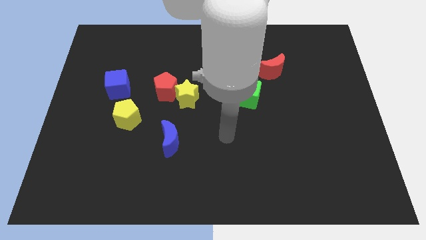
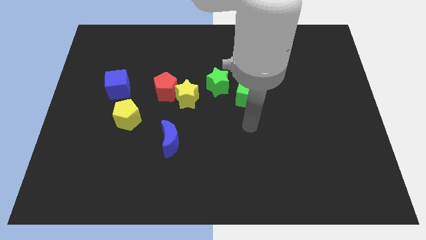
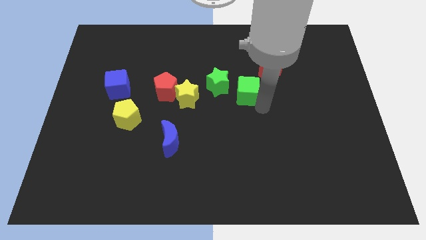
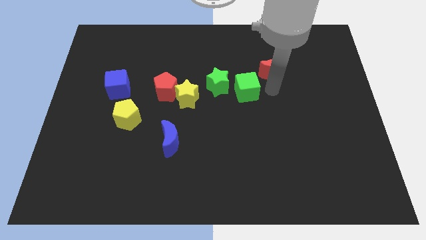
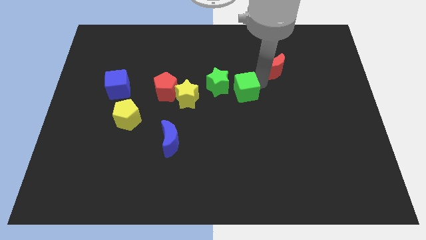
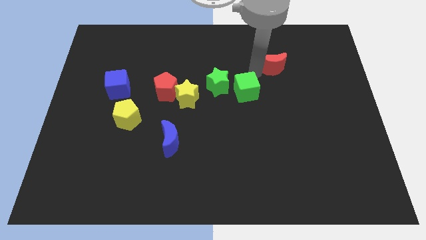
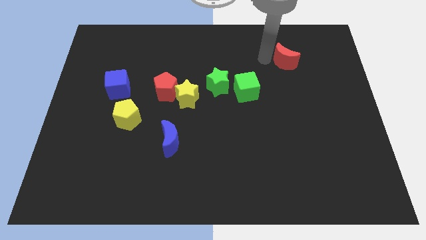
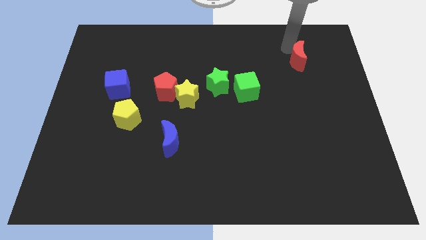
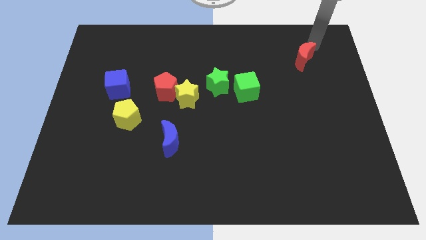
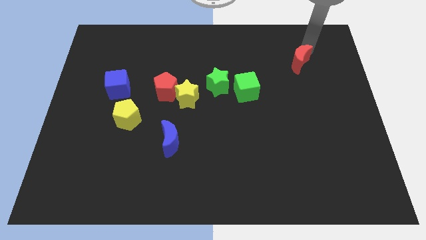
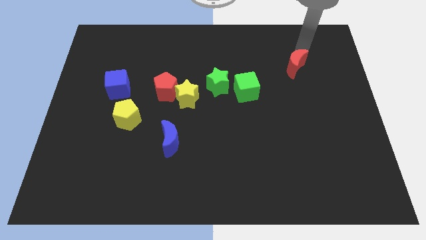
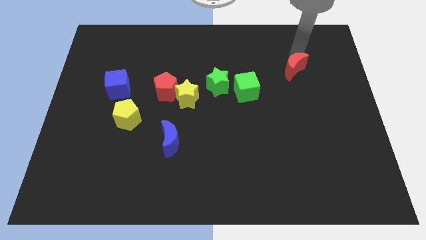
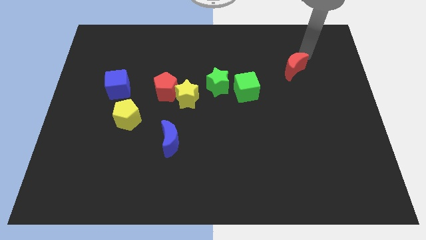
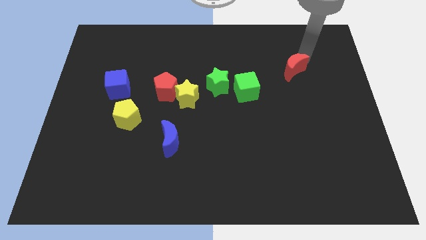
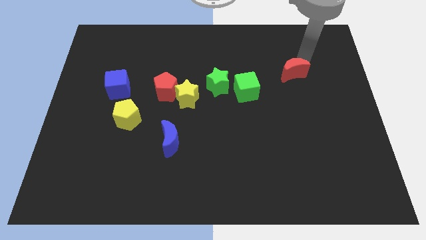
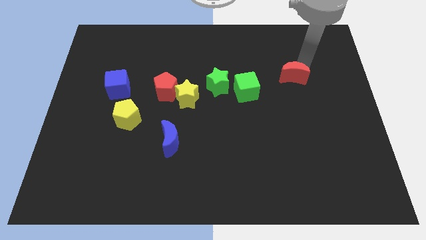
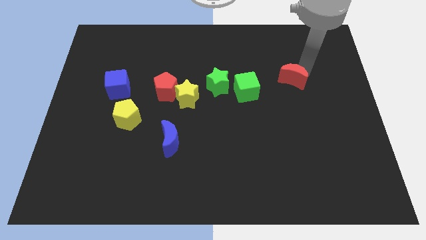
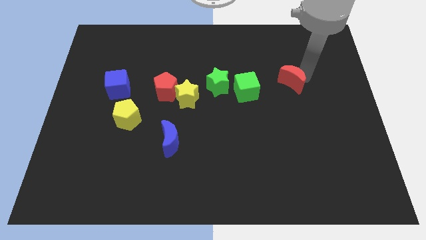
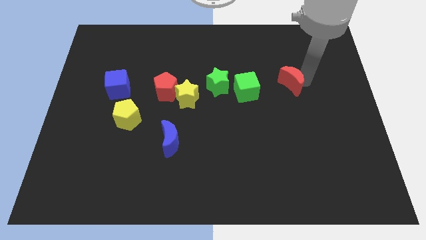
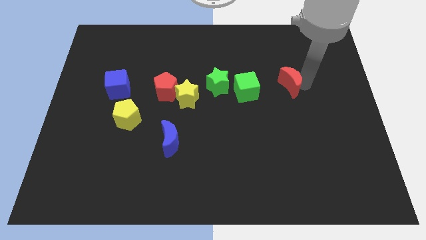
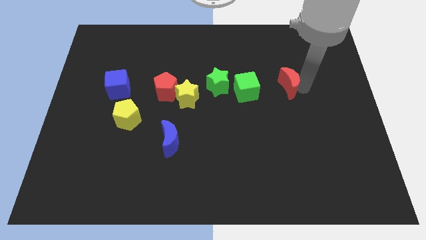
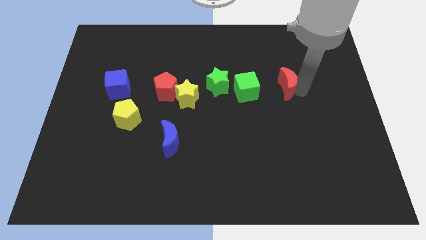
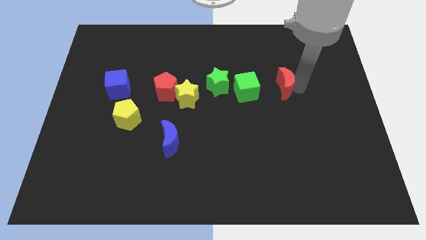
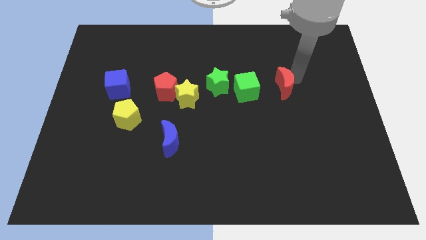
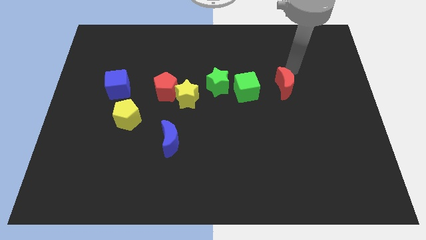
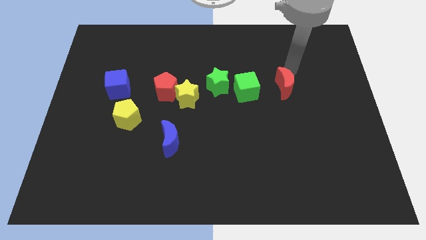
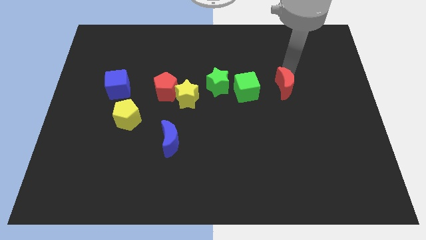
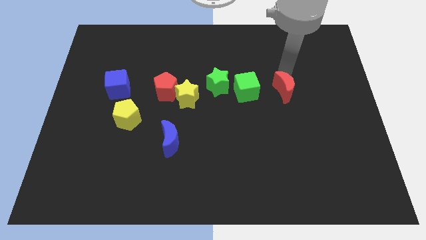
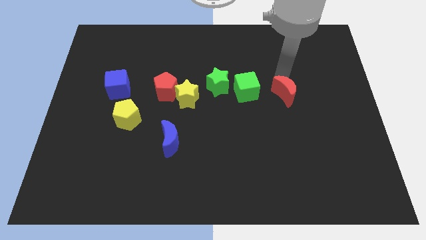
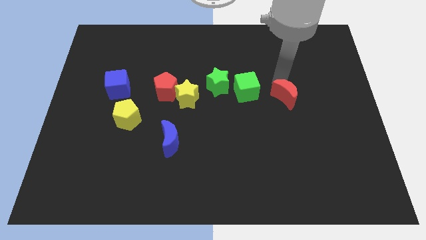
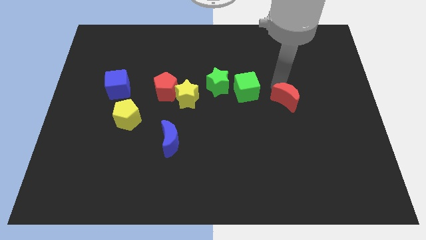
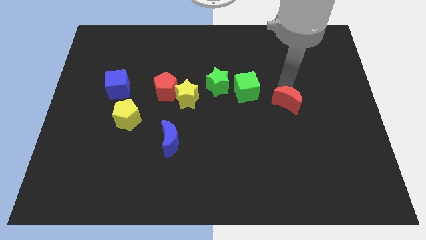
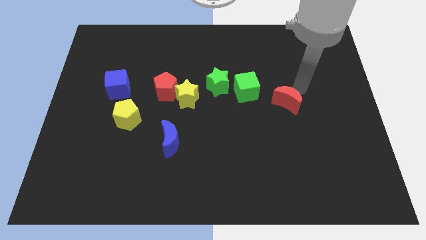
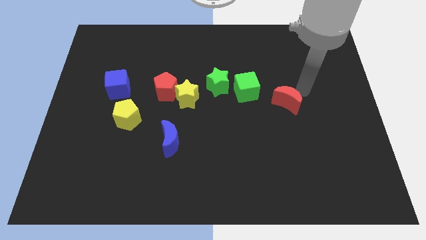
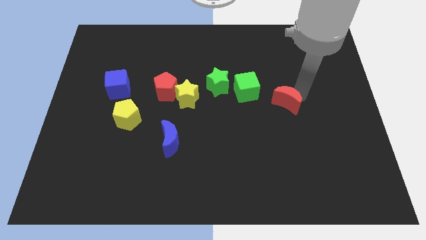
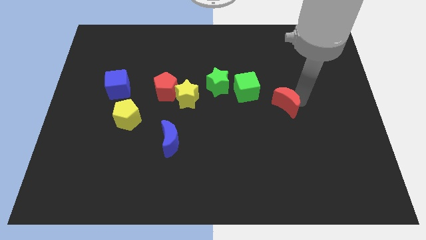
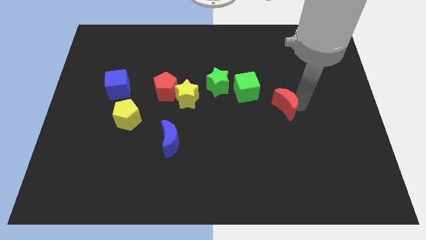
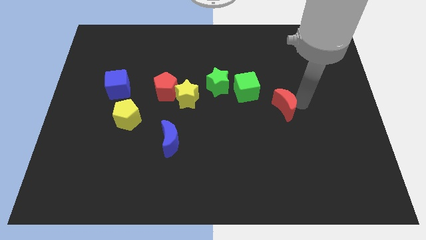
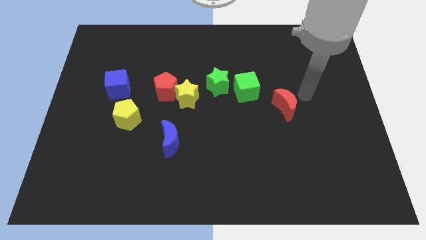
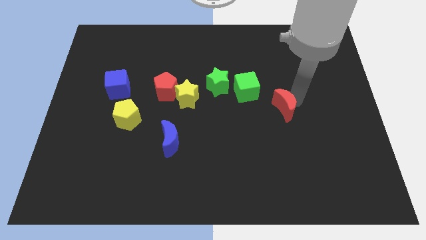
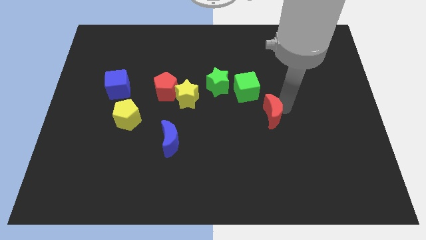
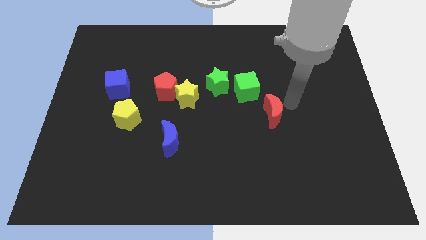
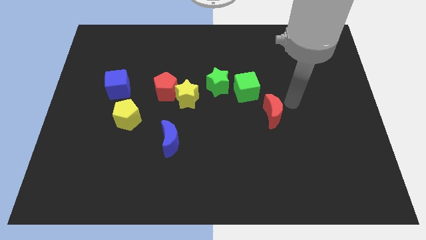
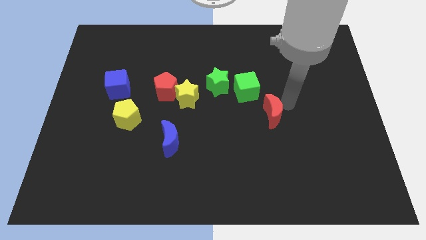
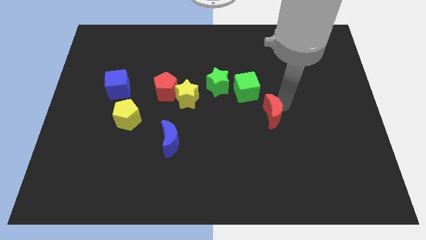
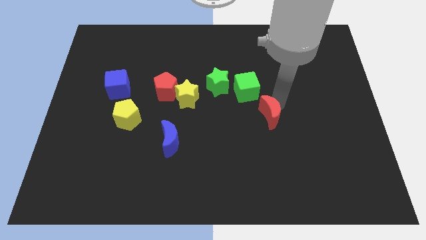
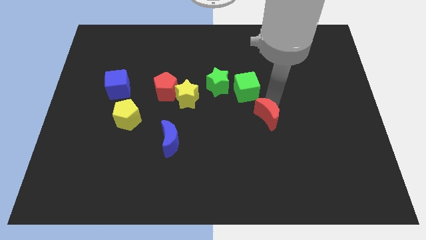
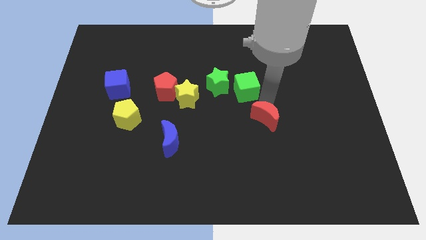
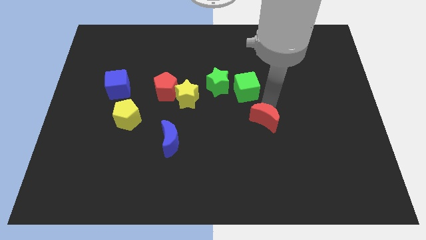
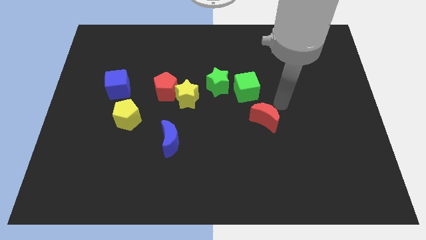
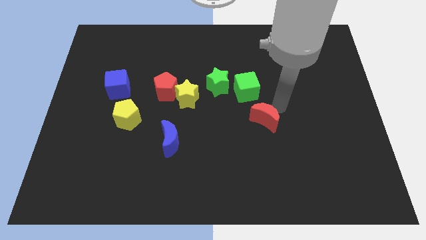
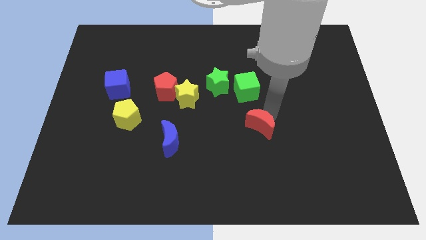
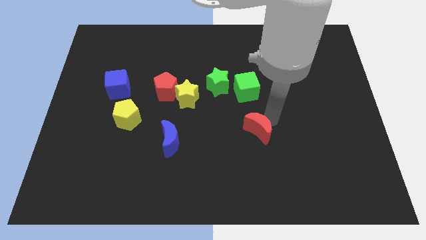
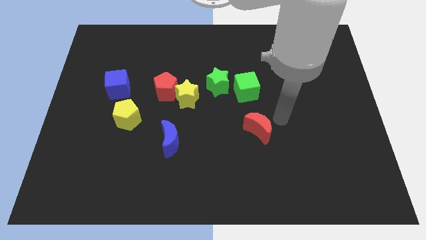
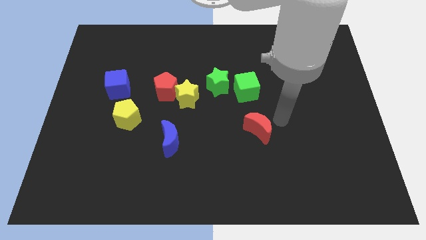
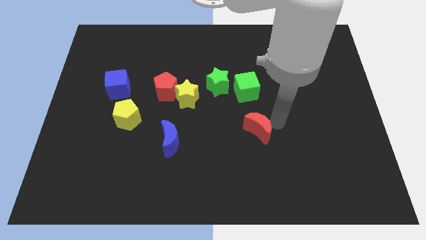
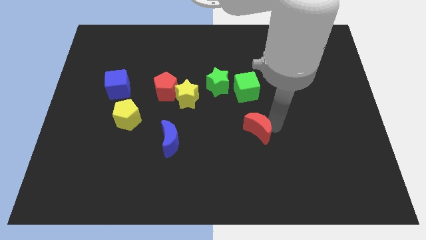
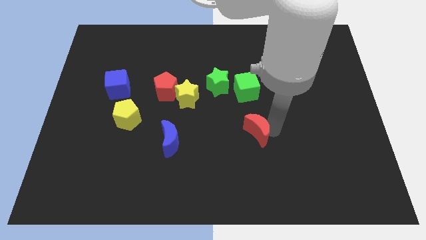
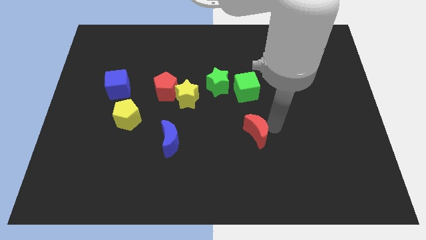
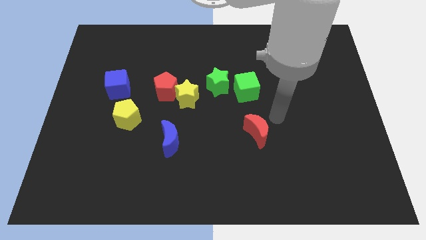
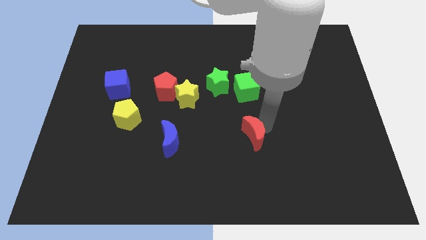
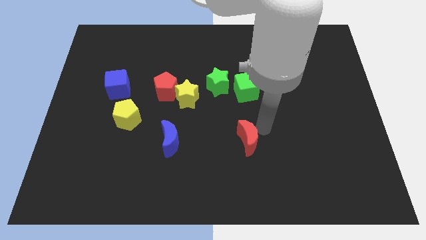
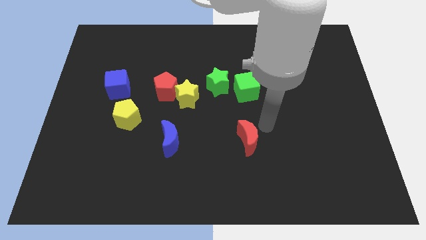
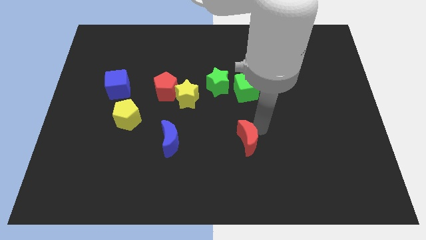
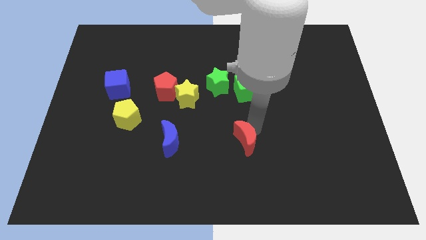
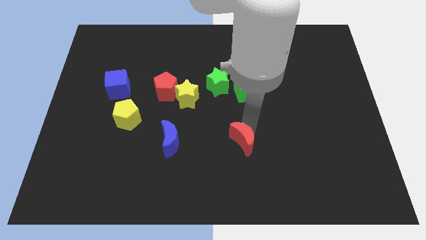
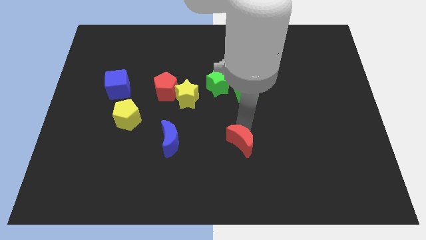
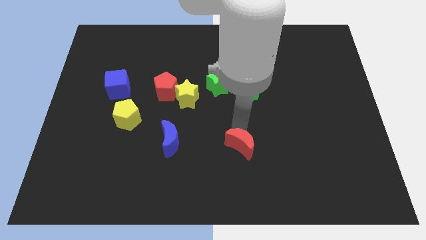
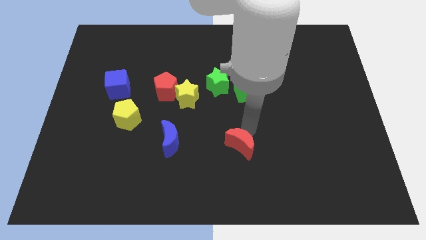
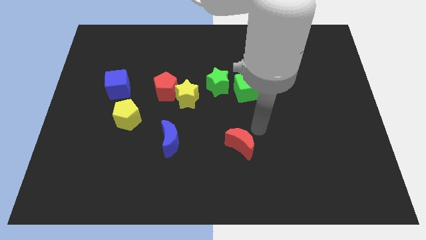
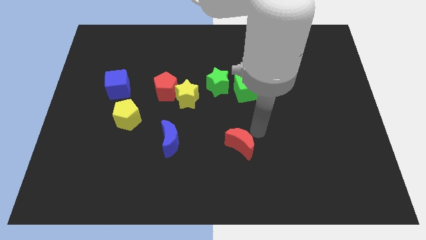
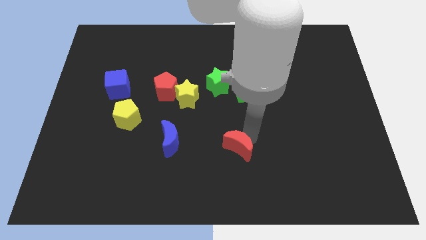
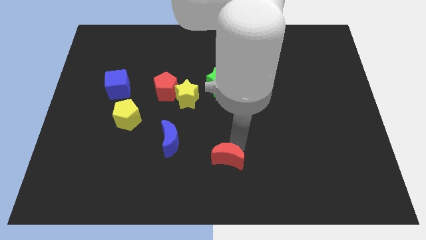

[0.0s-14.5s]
push the red moon to the bottom side

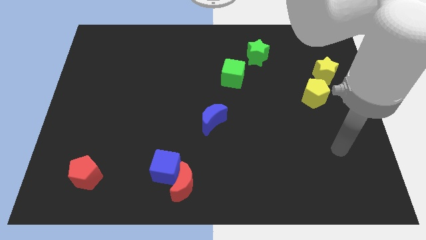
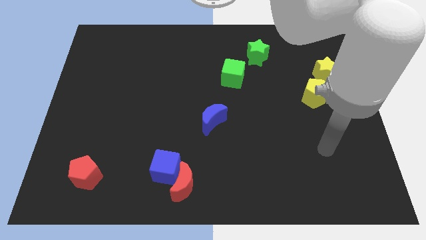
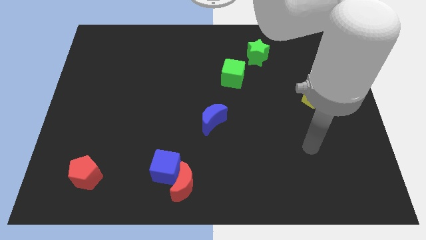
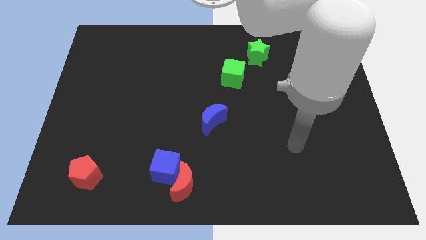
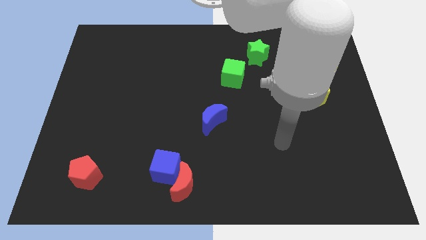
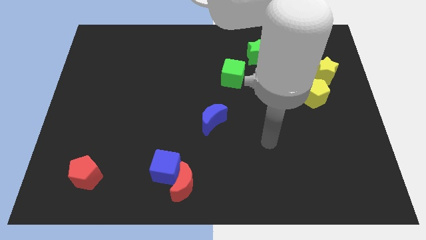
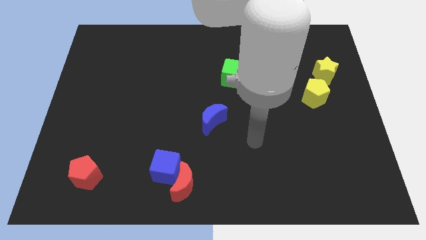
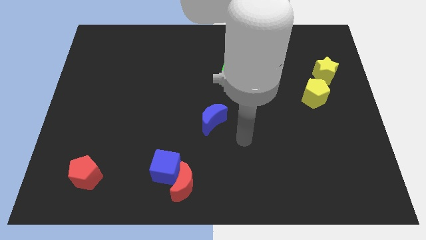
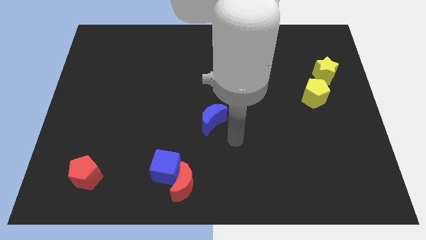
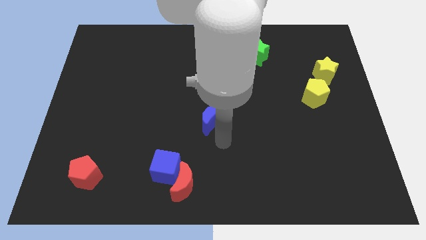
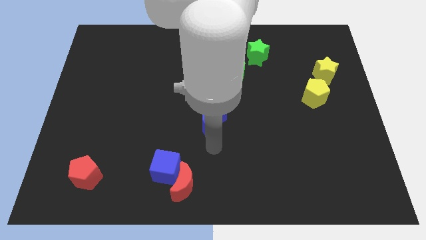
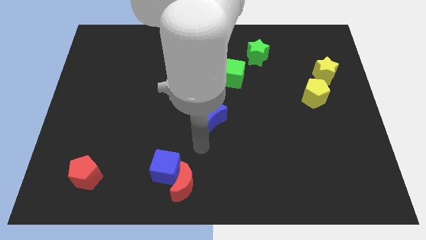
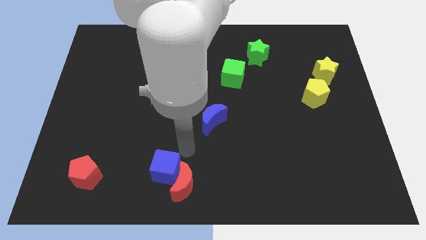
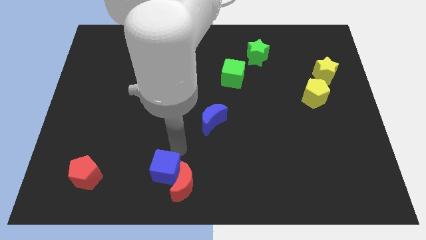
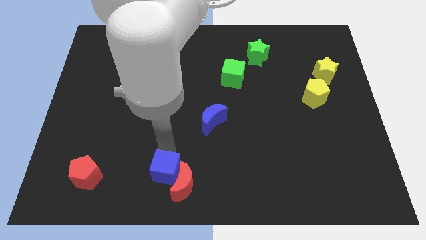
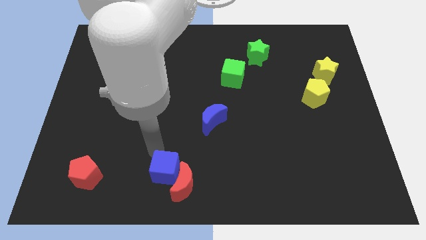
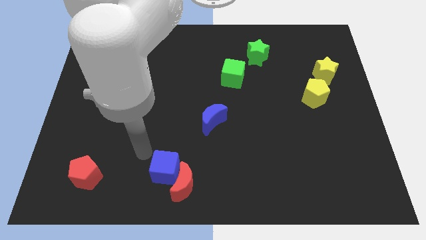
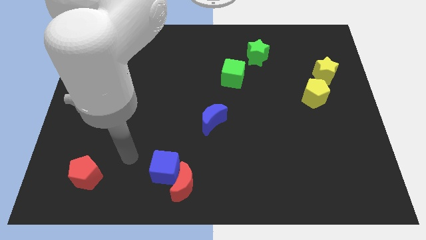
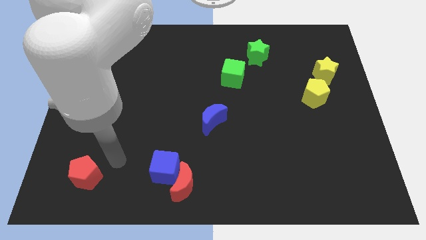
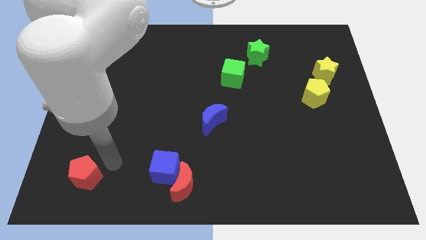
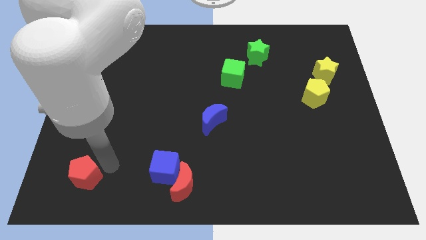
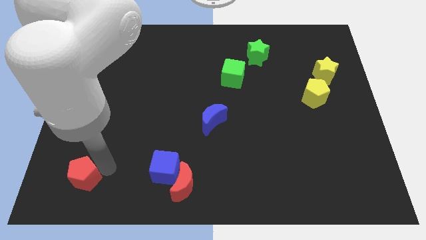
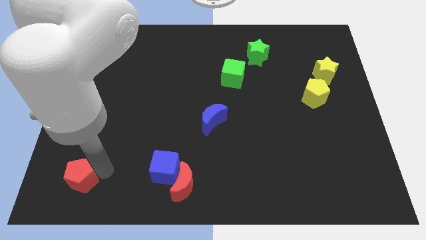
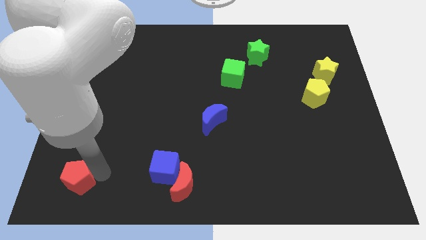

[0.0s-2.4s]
push the red pentagon to the bottom left corner
